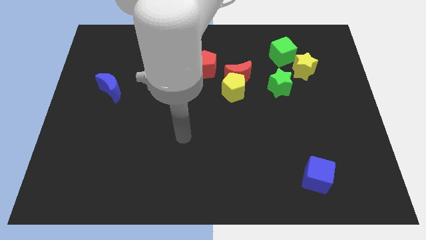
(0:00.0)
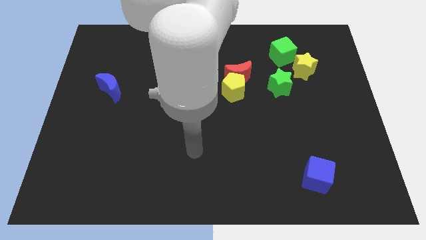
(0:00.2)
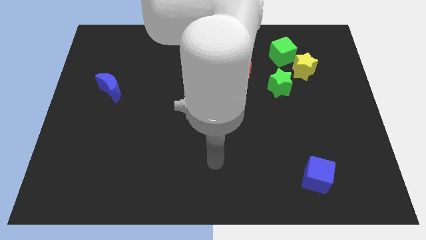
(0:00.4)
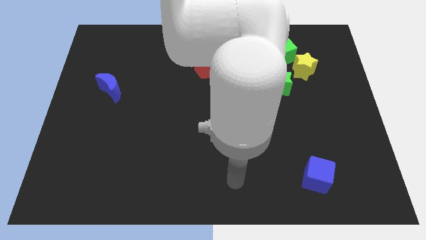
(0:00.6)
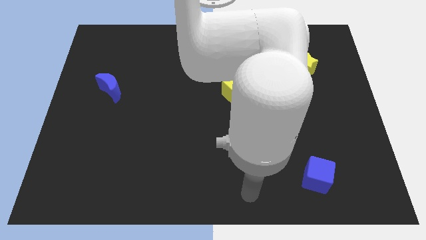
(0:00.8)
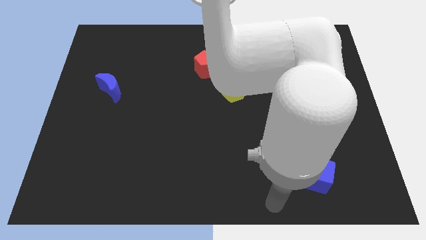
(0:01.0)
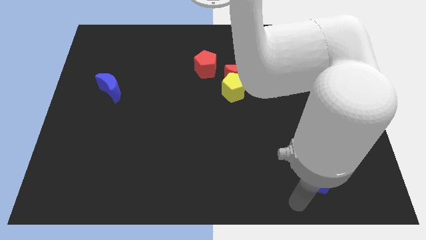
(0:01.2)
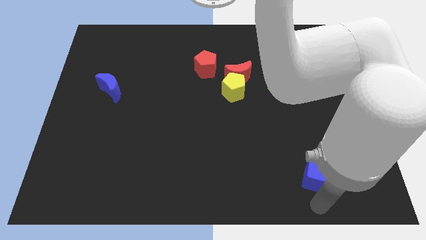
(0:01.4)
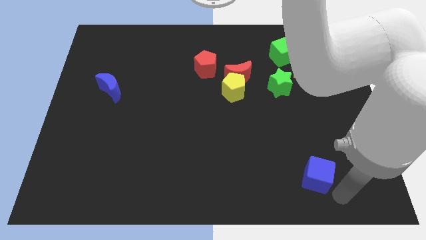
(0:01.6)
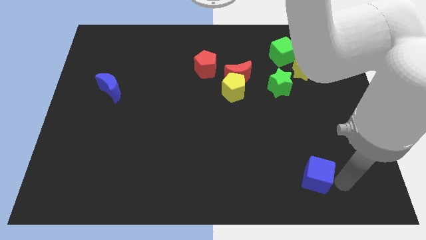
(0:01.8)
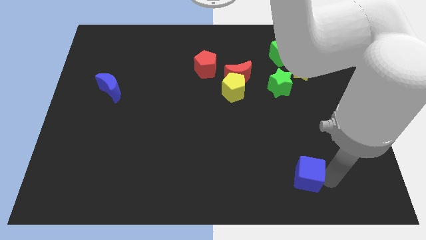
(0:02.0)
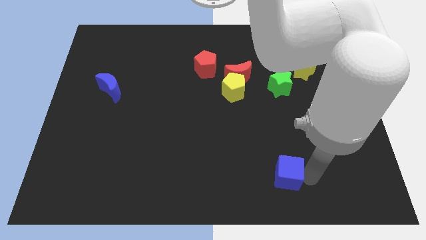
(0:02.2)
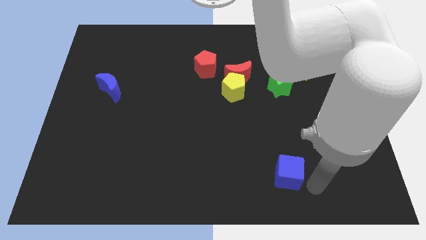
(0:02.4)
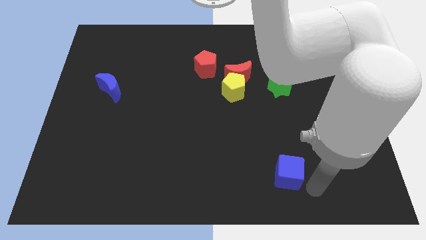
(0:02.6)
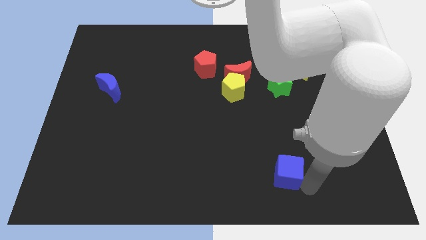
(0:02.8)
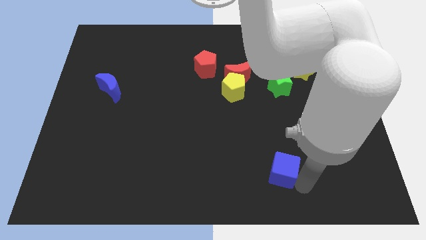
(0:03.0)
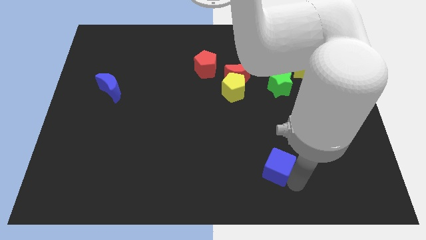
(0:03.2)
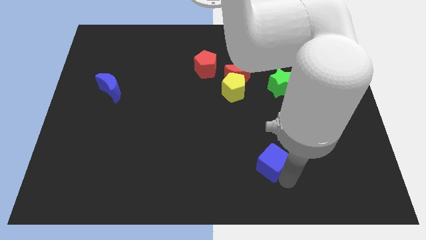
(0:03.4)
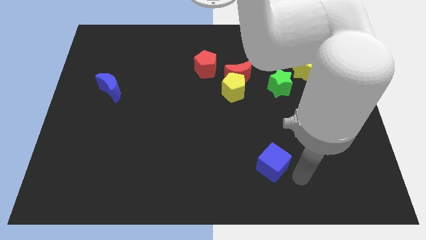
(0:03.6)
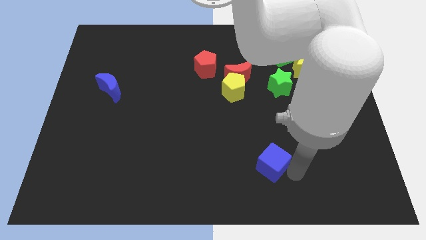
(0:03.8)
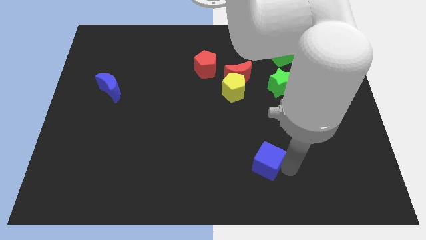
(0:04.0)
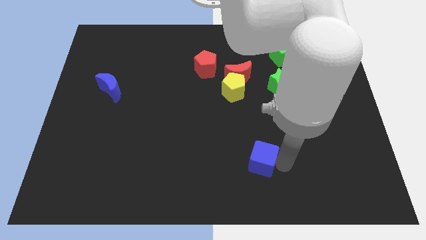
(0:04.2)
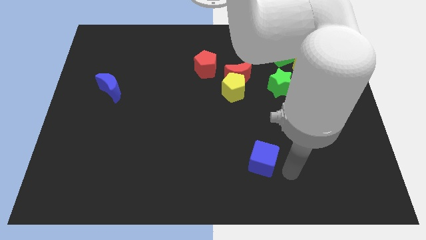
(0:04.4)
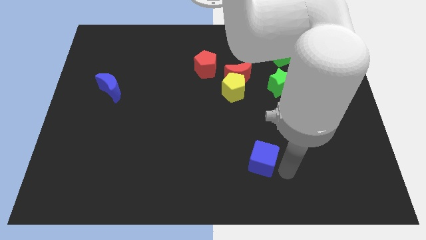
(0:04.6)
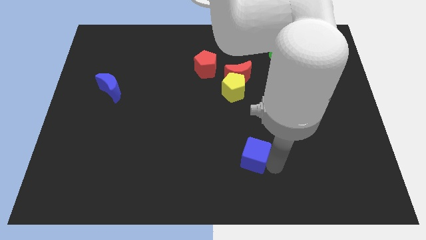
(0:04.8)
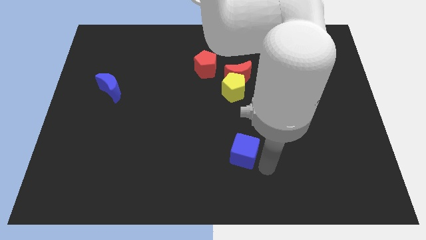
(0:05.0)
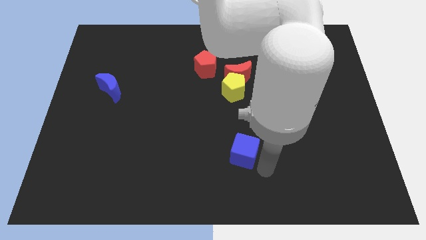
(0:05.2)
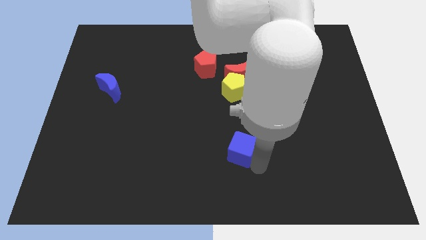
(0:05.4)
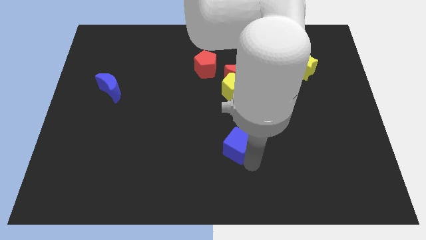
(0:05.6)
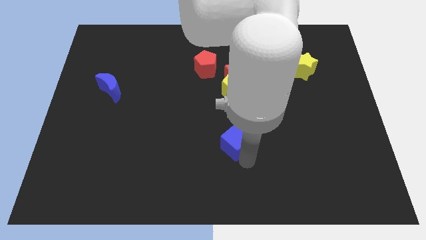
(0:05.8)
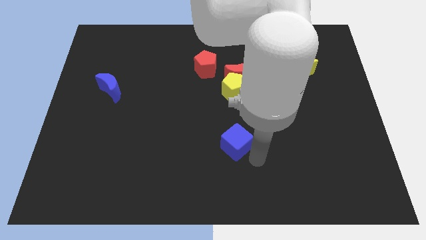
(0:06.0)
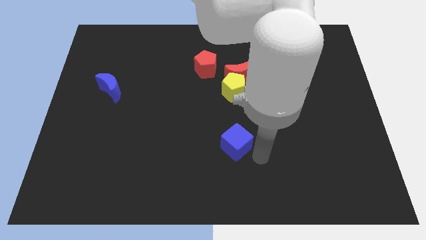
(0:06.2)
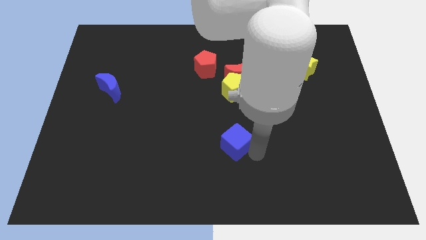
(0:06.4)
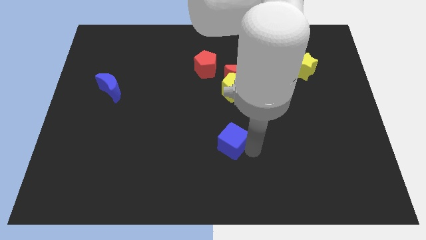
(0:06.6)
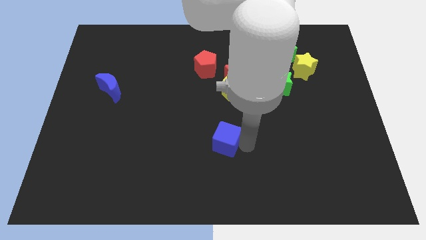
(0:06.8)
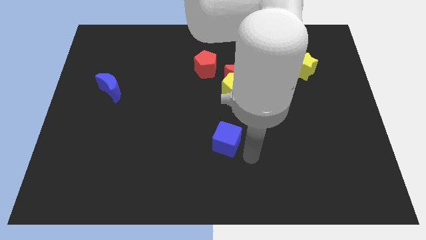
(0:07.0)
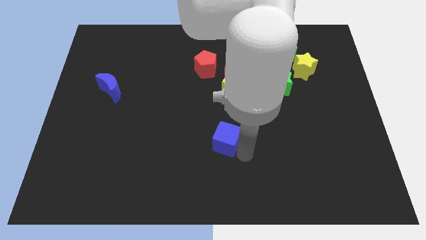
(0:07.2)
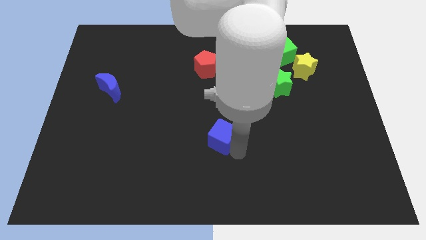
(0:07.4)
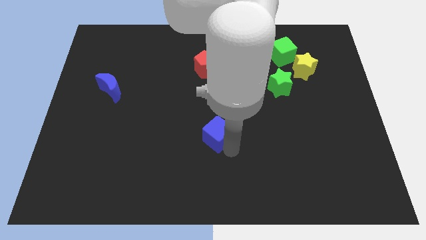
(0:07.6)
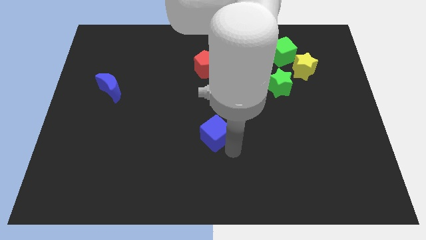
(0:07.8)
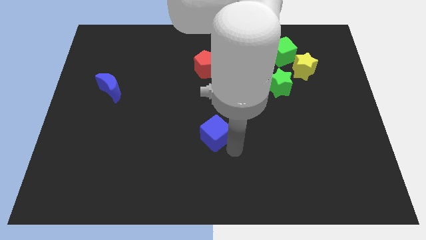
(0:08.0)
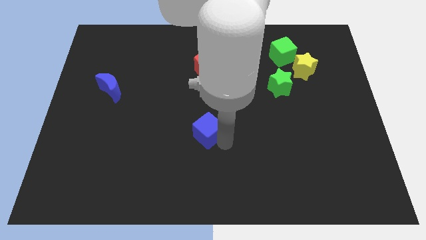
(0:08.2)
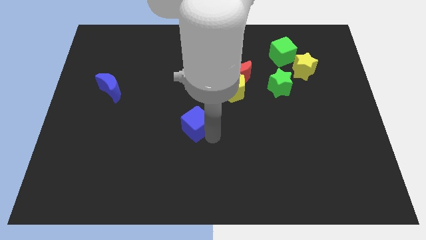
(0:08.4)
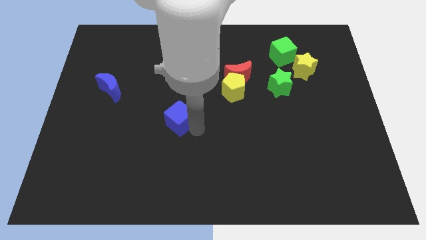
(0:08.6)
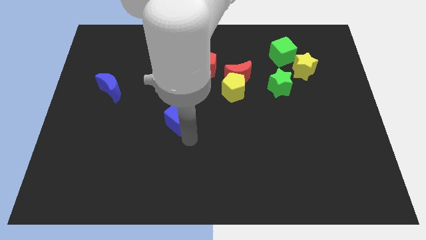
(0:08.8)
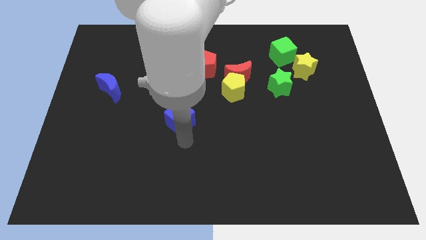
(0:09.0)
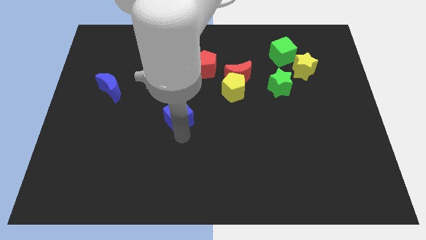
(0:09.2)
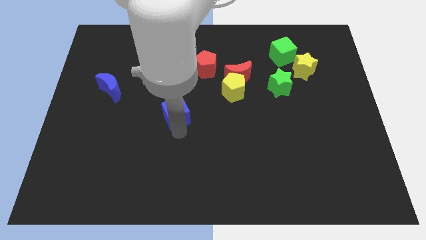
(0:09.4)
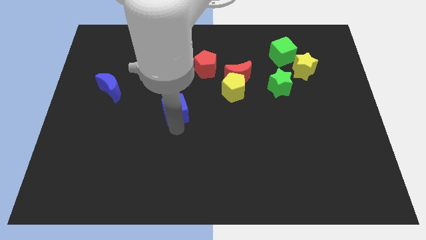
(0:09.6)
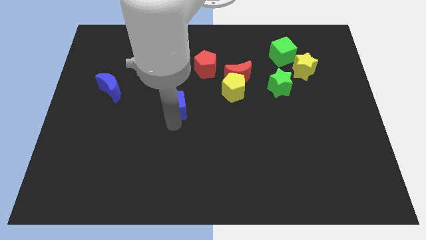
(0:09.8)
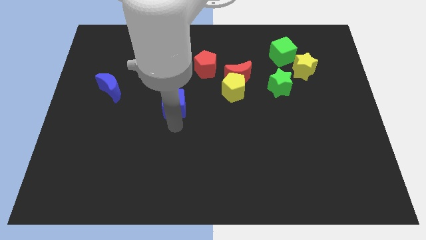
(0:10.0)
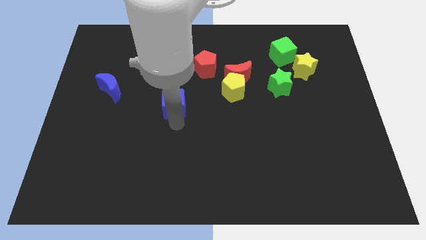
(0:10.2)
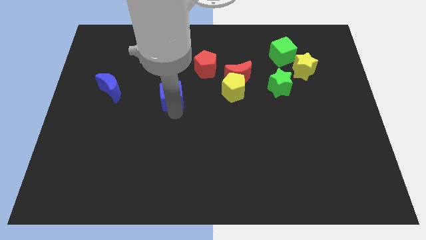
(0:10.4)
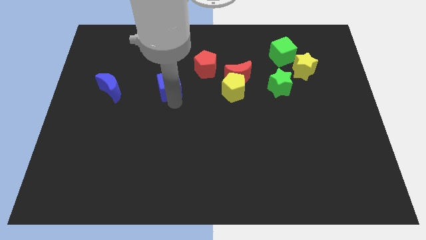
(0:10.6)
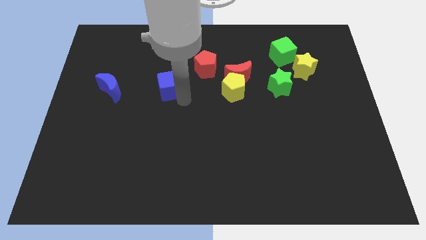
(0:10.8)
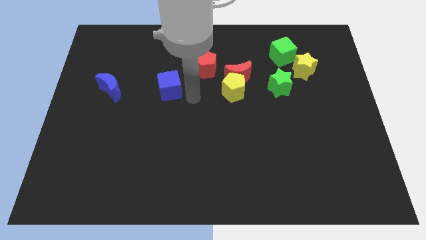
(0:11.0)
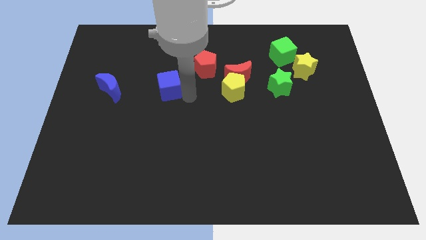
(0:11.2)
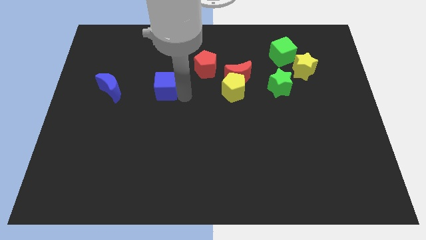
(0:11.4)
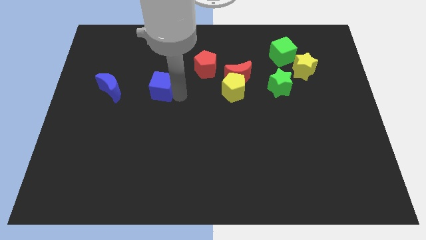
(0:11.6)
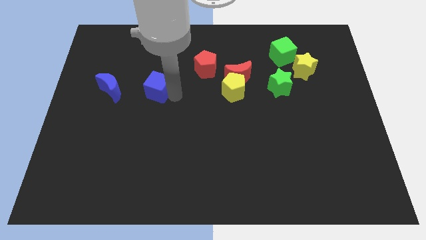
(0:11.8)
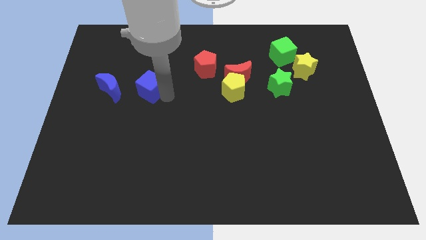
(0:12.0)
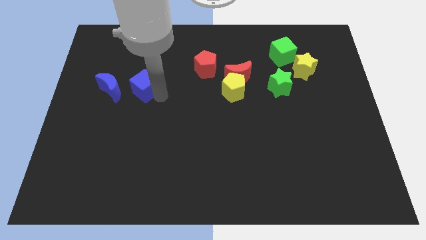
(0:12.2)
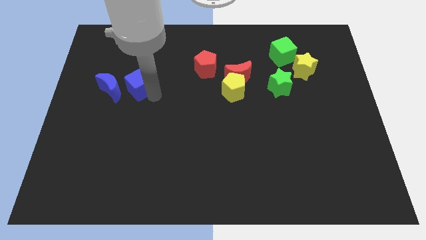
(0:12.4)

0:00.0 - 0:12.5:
move the blue cube to the top right side of the blue moon

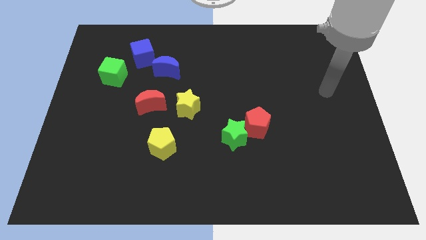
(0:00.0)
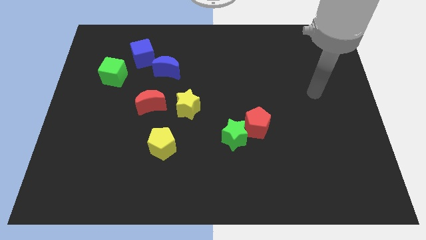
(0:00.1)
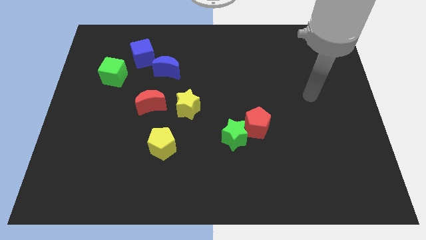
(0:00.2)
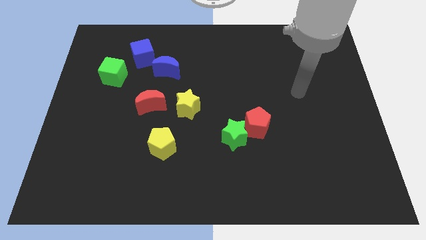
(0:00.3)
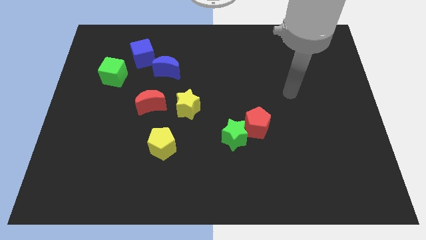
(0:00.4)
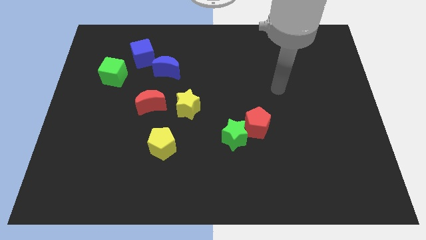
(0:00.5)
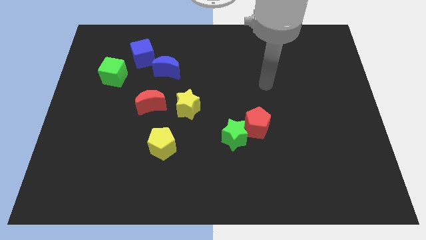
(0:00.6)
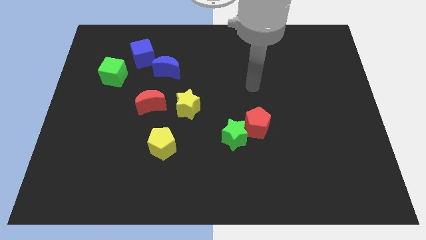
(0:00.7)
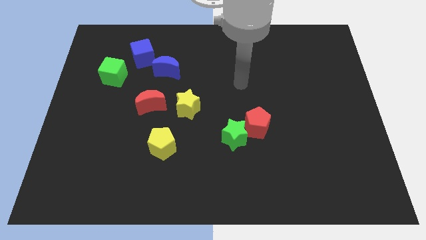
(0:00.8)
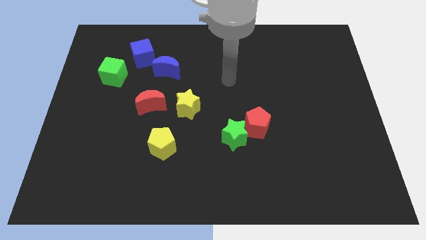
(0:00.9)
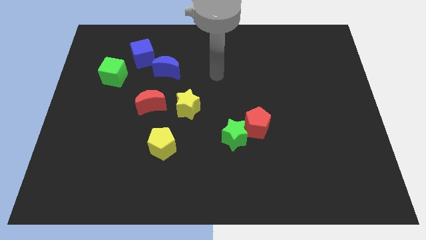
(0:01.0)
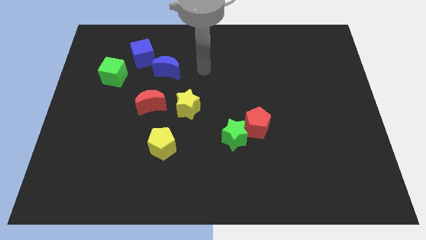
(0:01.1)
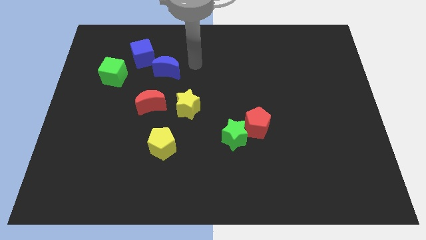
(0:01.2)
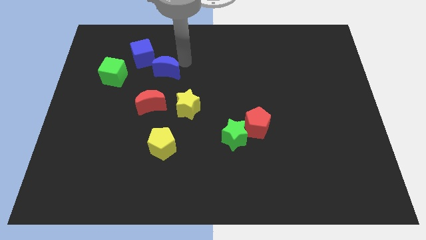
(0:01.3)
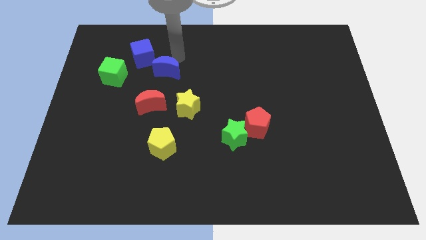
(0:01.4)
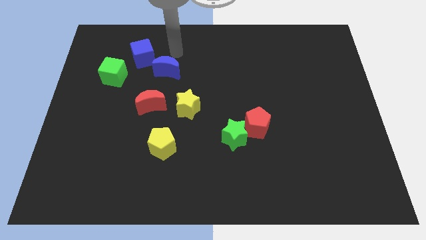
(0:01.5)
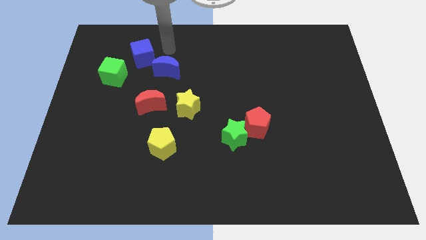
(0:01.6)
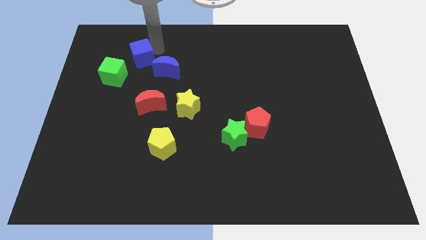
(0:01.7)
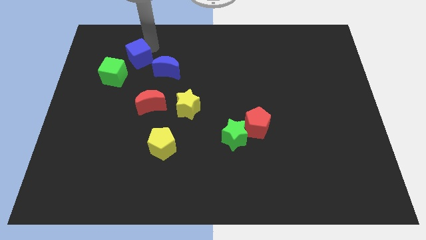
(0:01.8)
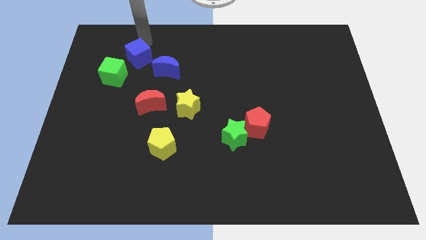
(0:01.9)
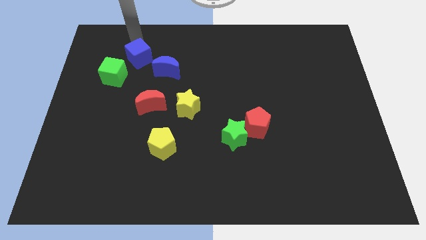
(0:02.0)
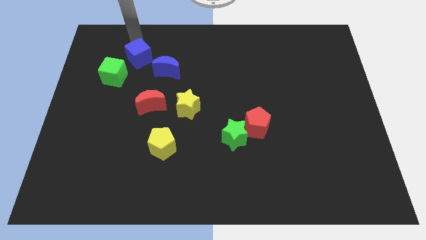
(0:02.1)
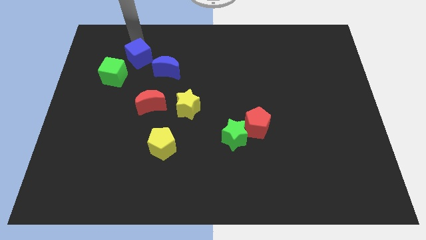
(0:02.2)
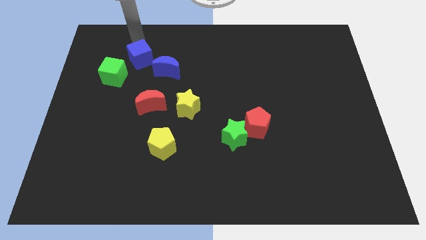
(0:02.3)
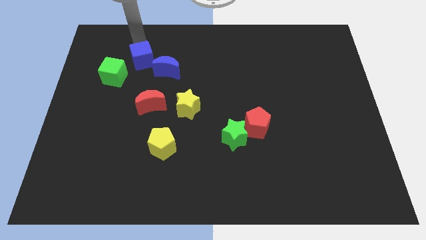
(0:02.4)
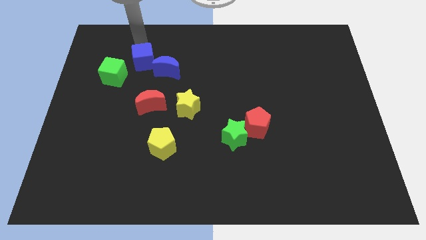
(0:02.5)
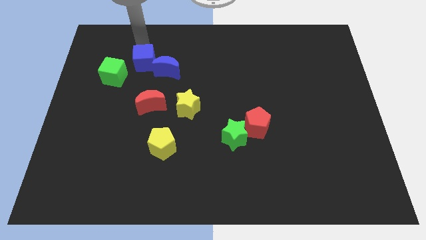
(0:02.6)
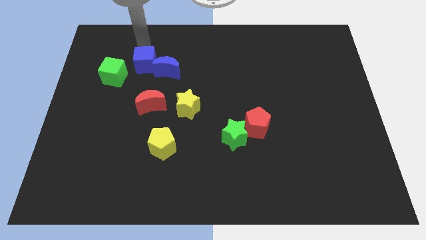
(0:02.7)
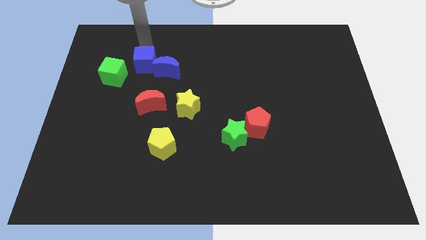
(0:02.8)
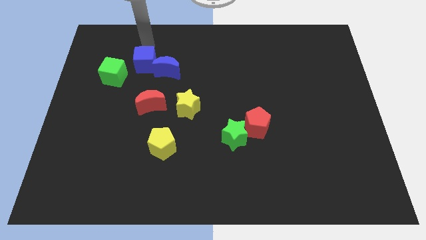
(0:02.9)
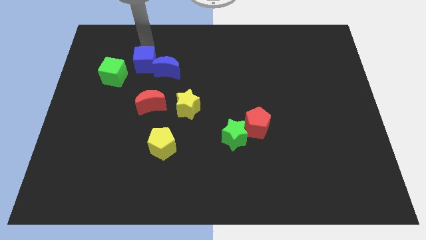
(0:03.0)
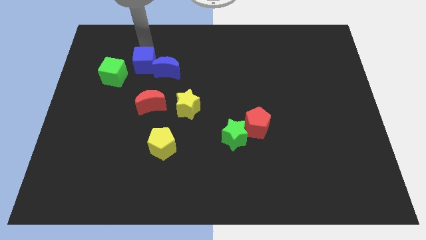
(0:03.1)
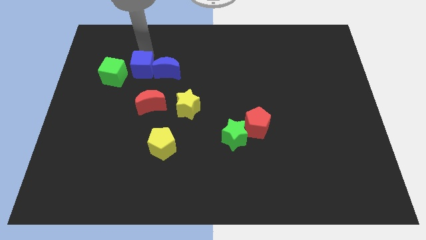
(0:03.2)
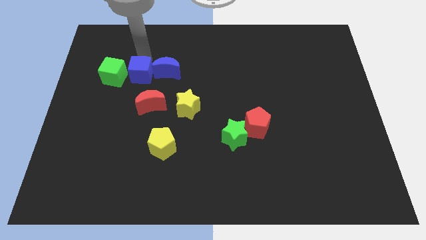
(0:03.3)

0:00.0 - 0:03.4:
slide the blue cube diagonally down and to the left of the blue moon
